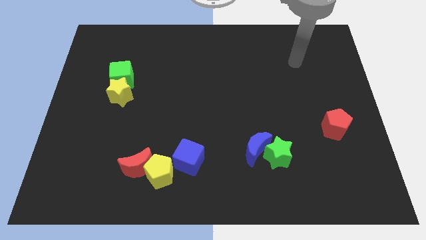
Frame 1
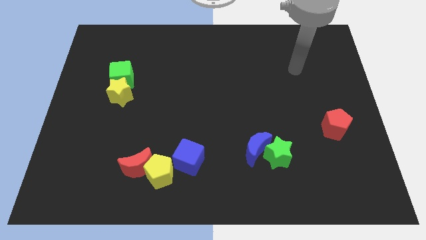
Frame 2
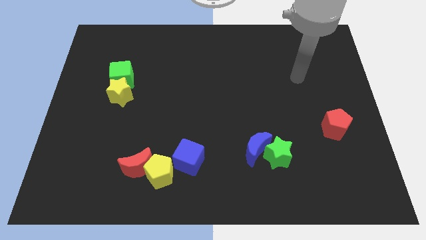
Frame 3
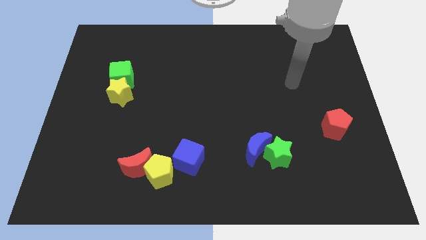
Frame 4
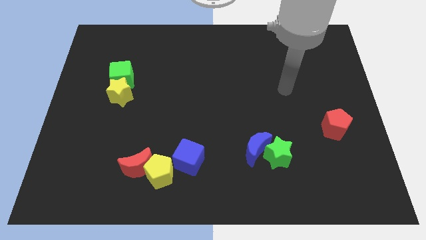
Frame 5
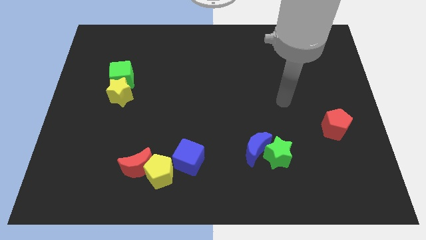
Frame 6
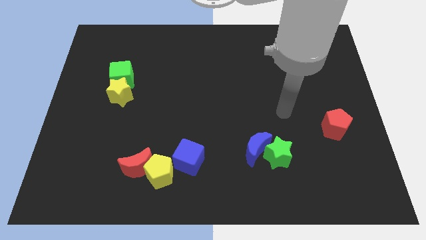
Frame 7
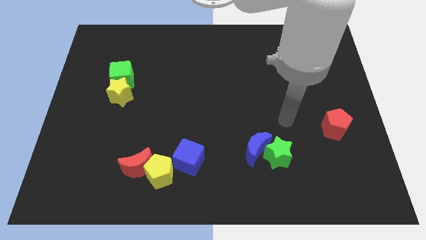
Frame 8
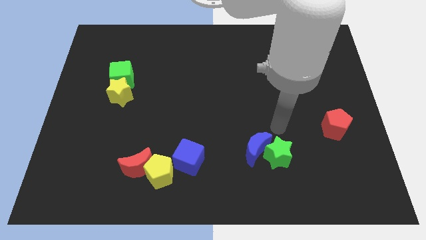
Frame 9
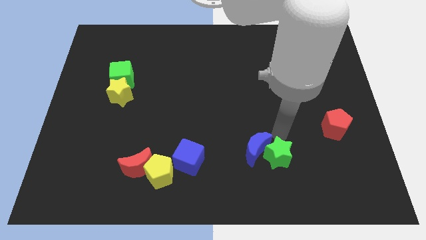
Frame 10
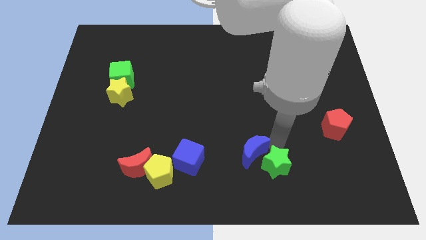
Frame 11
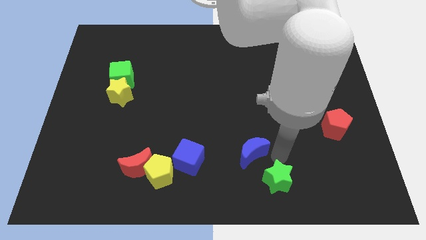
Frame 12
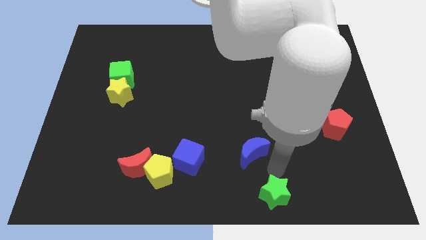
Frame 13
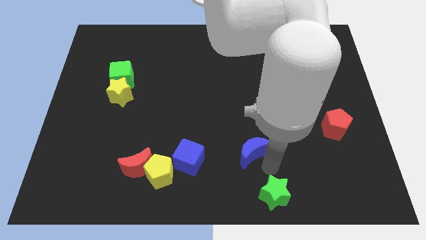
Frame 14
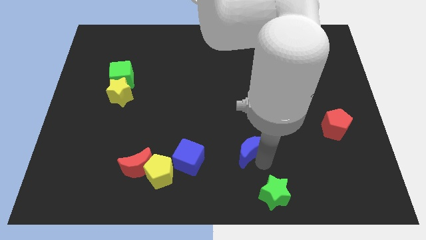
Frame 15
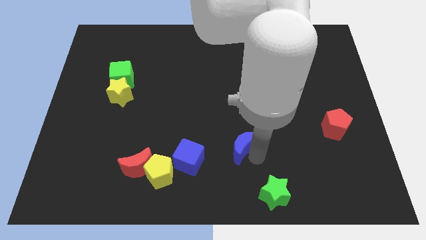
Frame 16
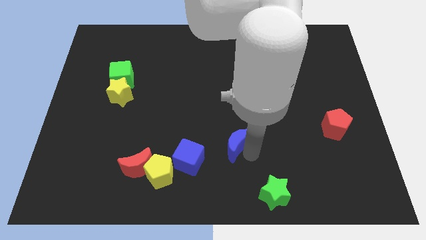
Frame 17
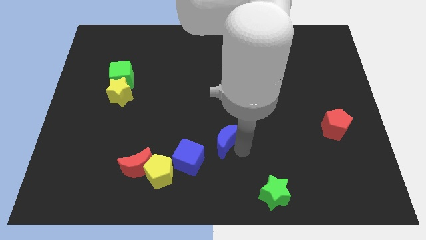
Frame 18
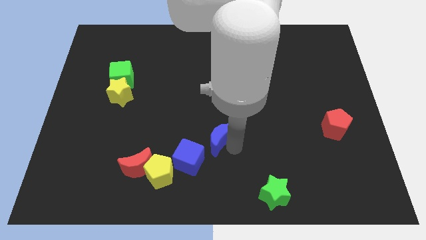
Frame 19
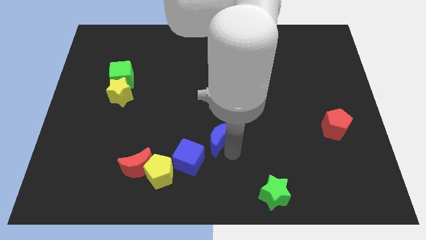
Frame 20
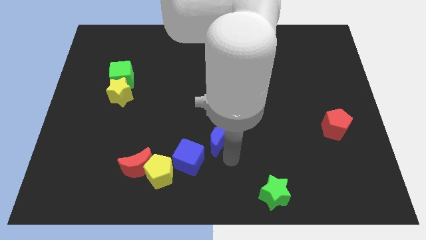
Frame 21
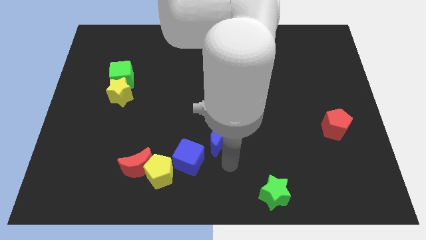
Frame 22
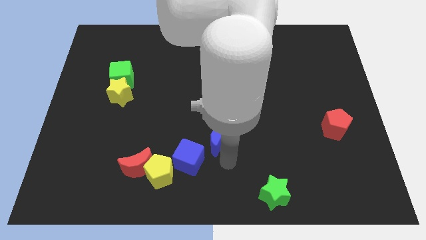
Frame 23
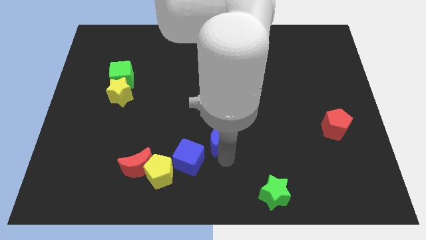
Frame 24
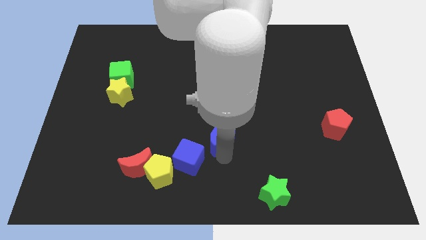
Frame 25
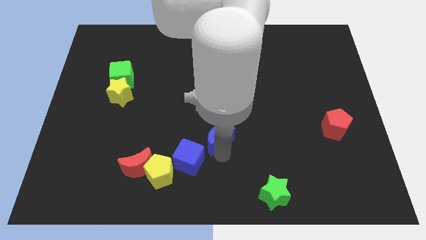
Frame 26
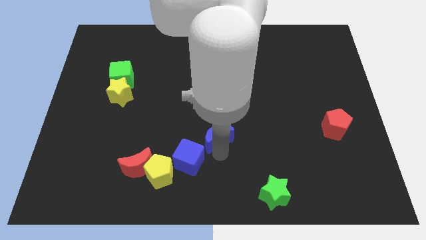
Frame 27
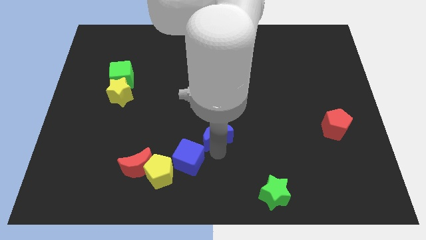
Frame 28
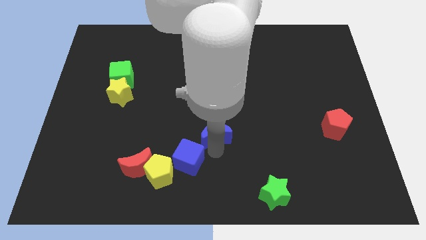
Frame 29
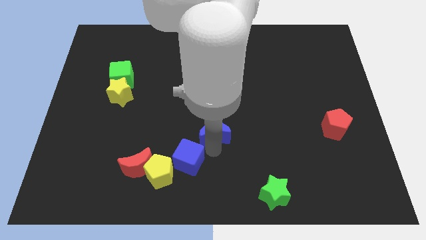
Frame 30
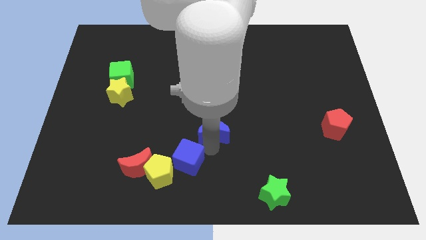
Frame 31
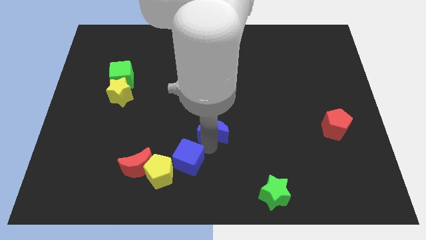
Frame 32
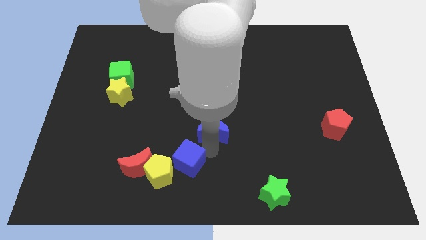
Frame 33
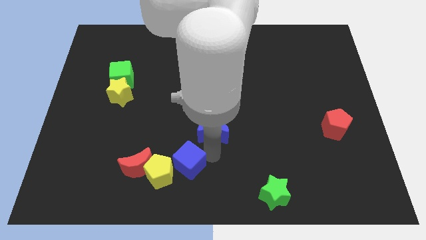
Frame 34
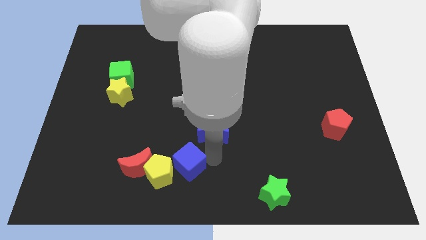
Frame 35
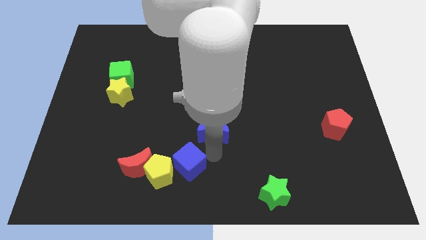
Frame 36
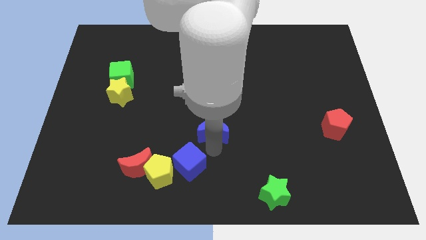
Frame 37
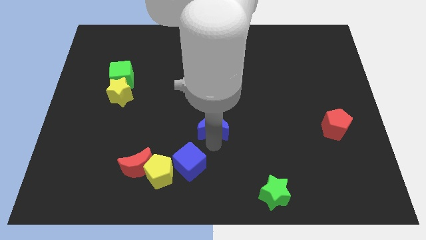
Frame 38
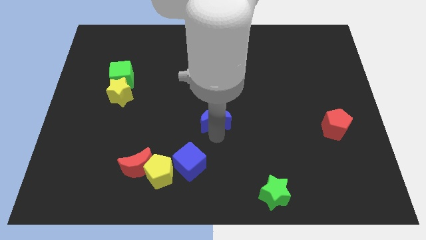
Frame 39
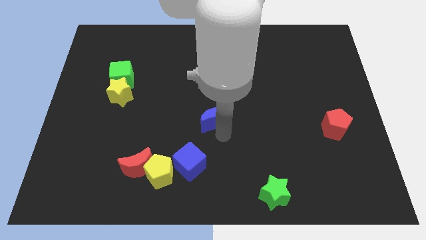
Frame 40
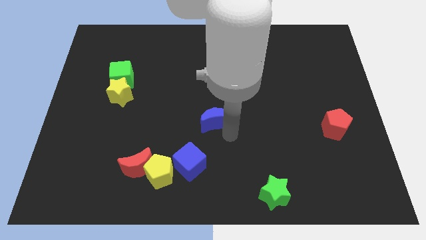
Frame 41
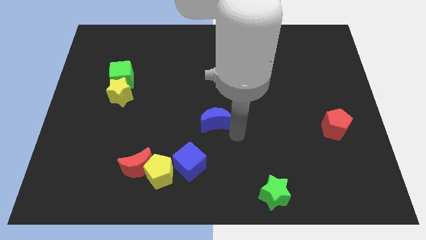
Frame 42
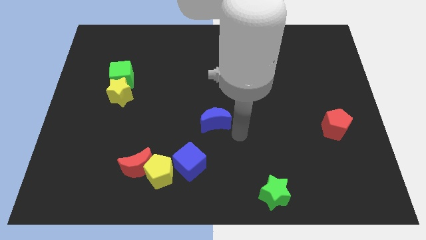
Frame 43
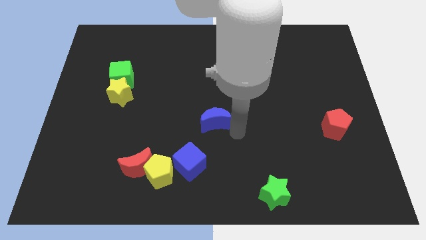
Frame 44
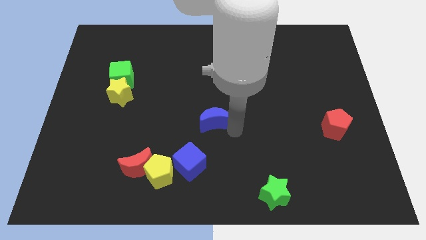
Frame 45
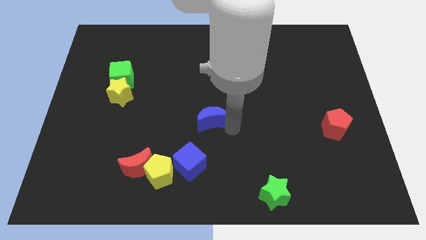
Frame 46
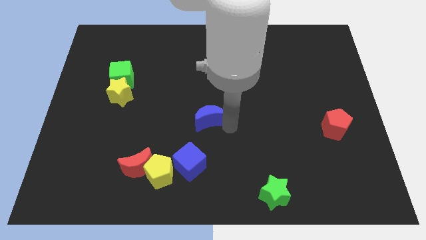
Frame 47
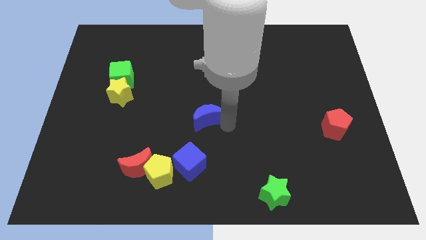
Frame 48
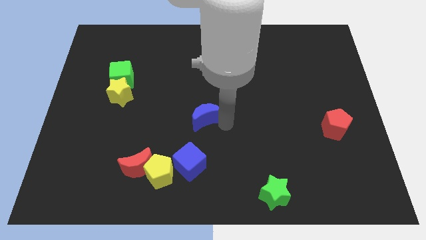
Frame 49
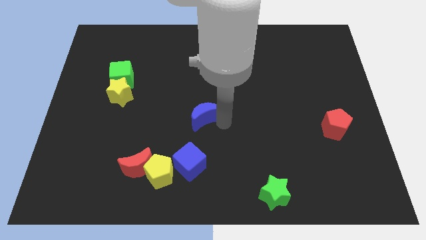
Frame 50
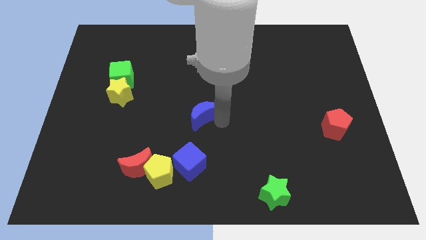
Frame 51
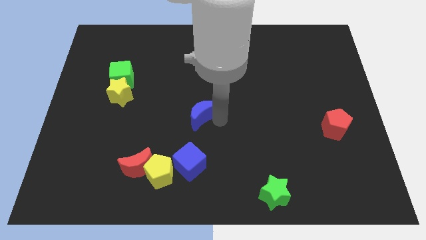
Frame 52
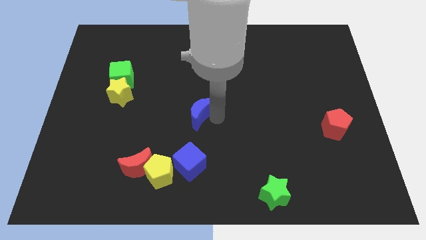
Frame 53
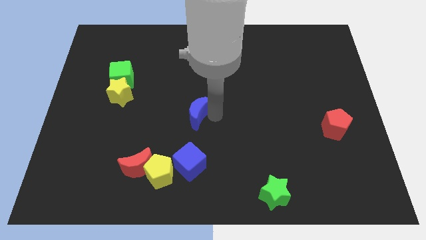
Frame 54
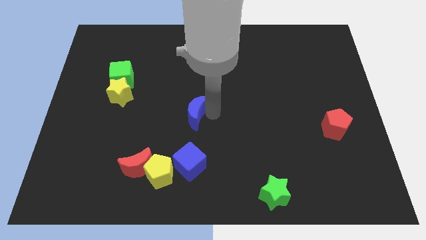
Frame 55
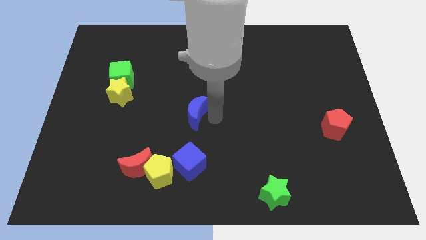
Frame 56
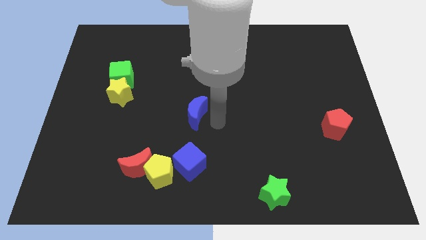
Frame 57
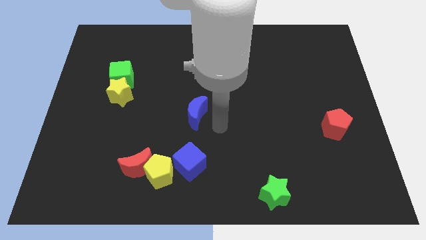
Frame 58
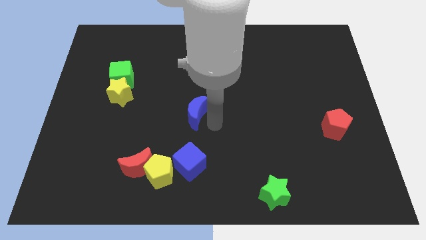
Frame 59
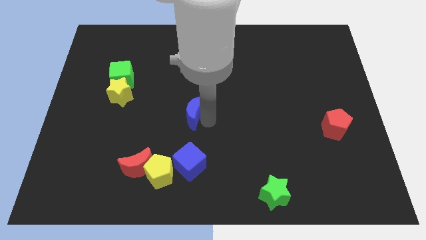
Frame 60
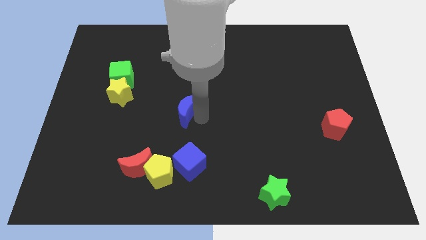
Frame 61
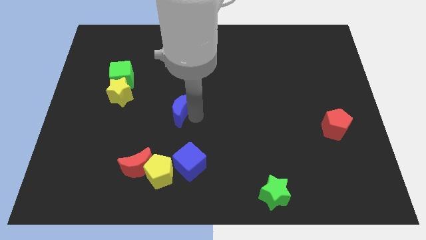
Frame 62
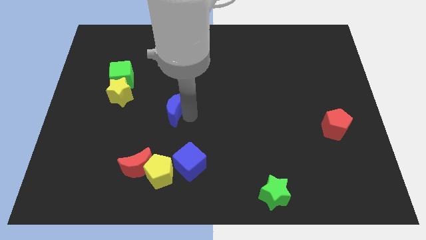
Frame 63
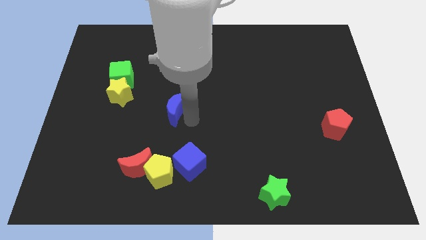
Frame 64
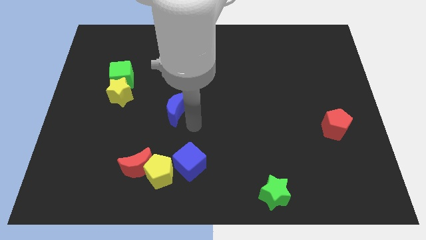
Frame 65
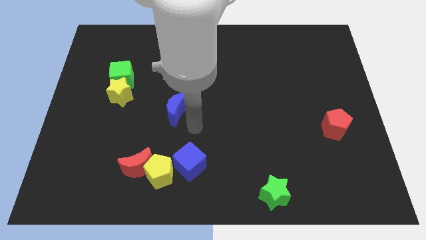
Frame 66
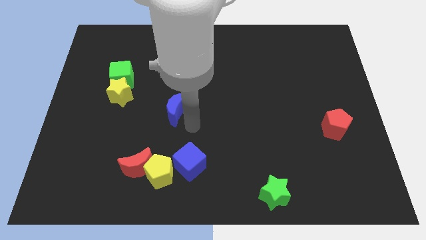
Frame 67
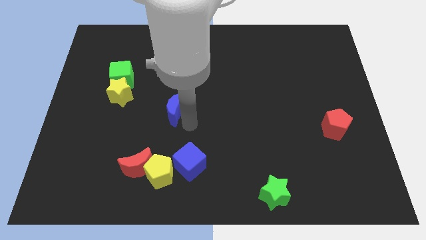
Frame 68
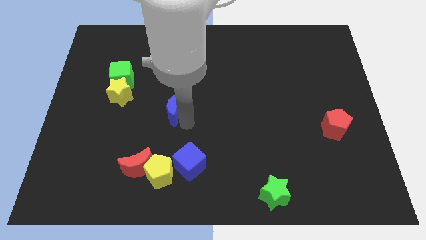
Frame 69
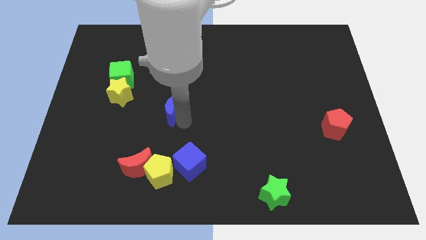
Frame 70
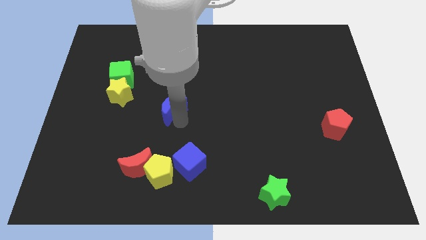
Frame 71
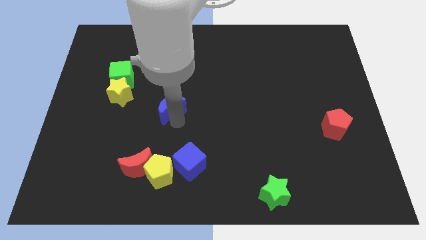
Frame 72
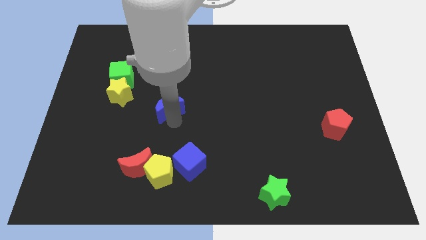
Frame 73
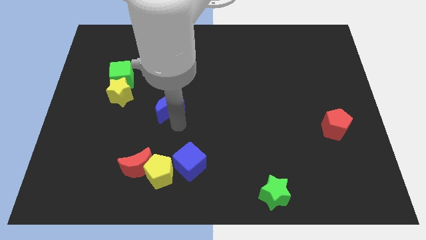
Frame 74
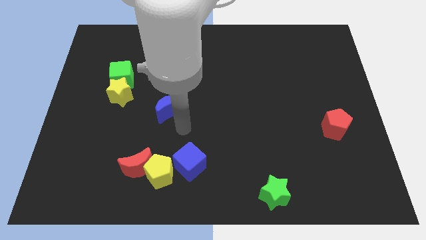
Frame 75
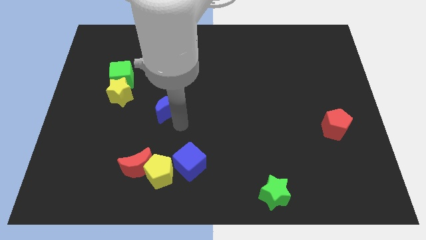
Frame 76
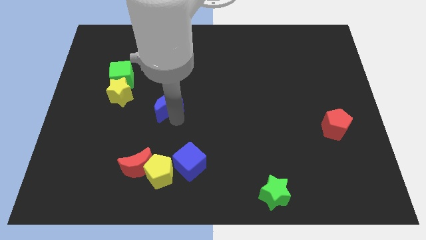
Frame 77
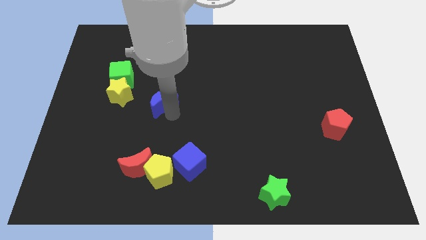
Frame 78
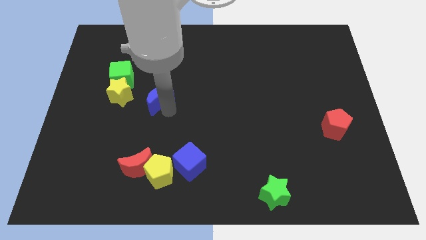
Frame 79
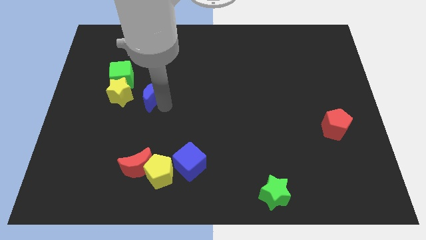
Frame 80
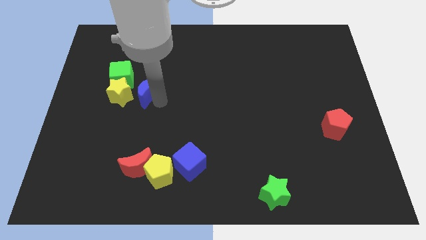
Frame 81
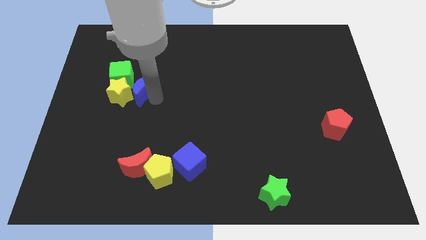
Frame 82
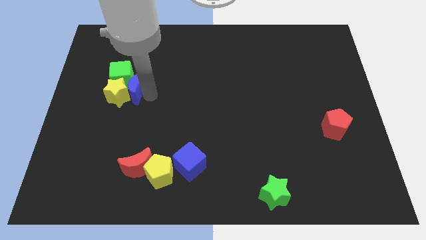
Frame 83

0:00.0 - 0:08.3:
push the blue moon towards the green cube
